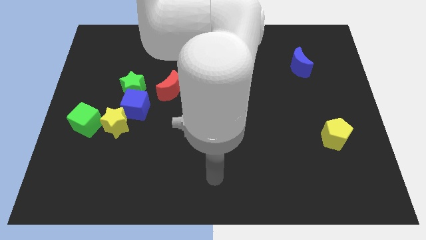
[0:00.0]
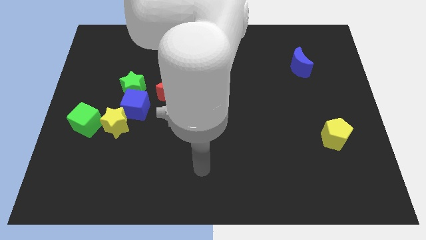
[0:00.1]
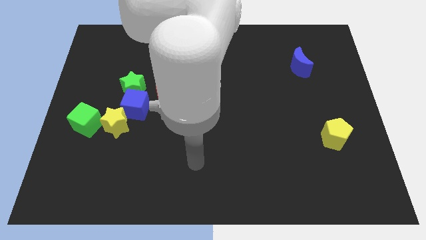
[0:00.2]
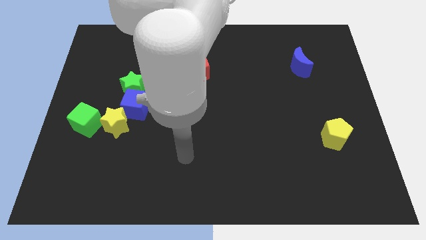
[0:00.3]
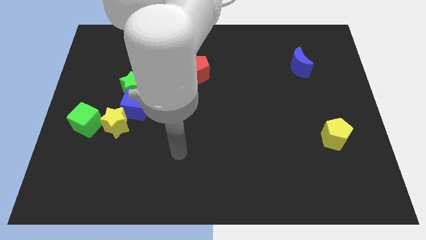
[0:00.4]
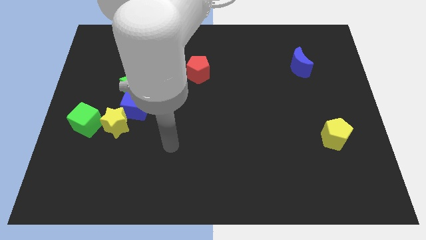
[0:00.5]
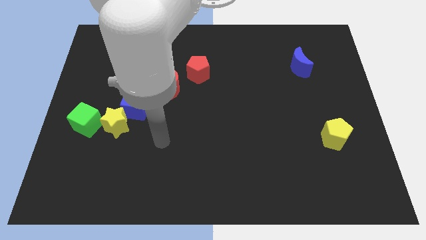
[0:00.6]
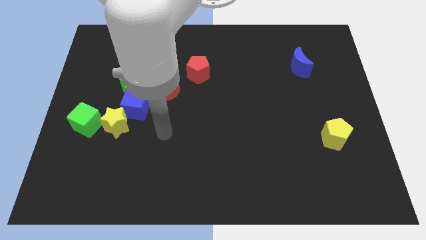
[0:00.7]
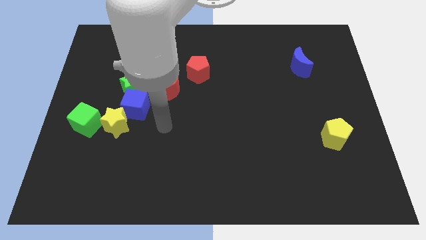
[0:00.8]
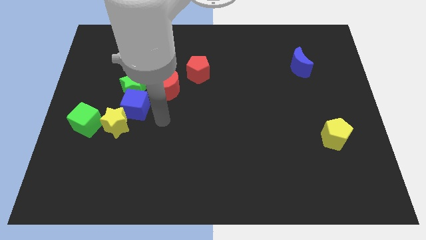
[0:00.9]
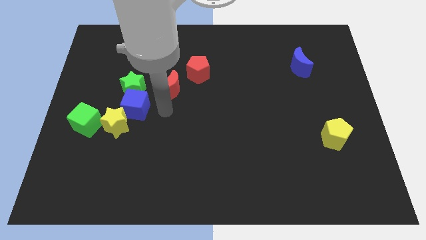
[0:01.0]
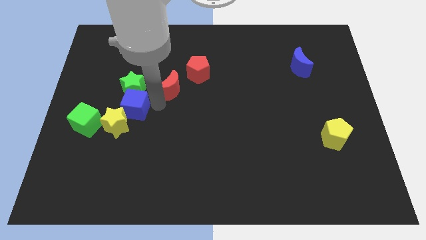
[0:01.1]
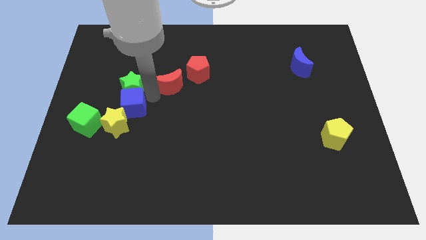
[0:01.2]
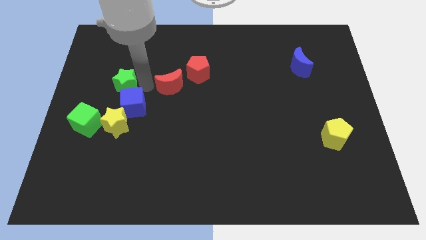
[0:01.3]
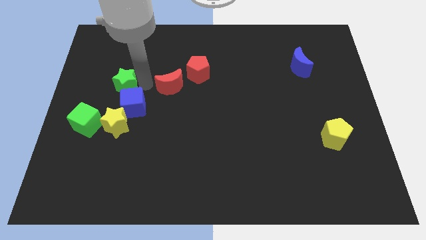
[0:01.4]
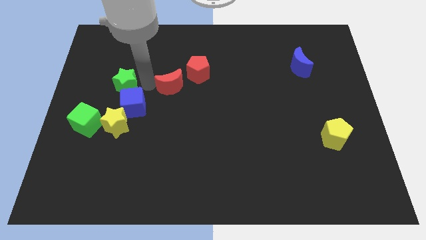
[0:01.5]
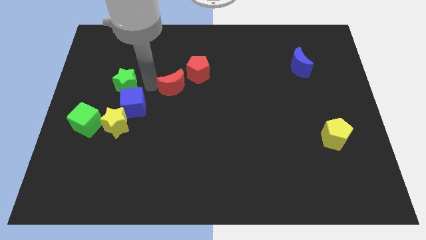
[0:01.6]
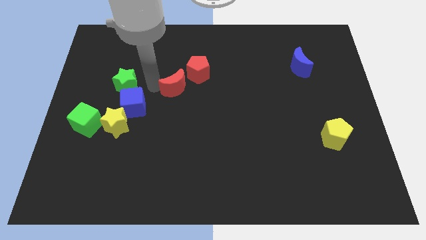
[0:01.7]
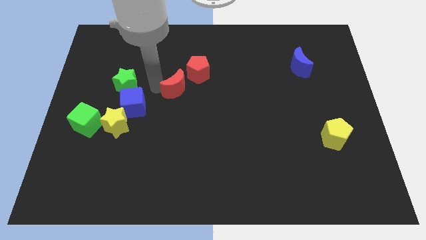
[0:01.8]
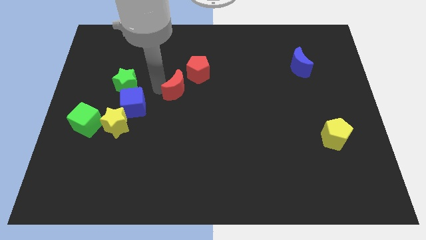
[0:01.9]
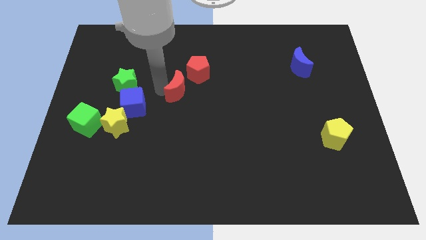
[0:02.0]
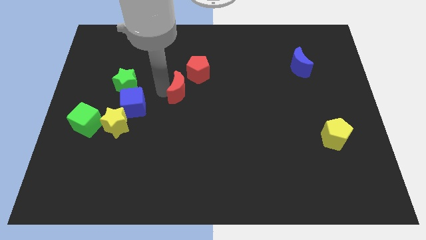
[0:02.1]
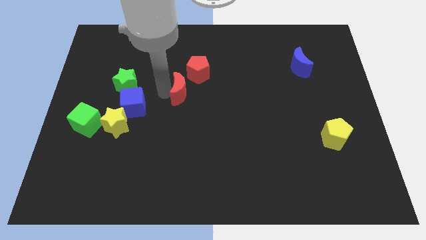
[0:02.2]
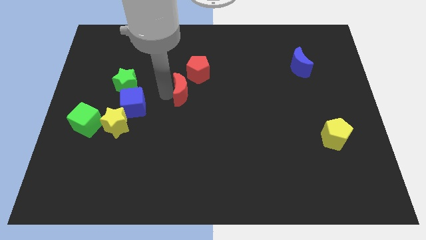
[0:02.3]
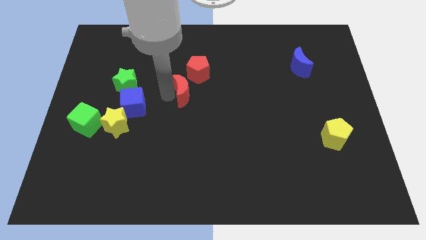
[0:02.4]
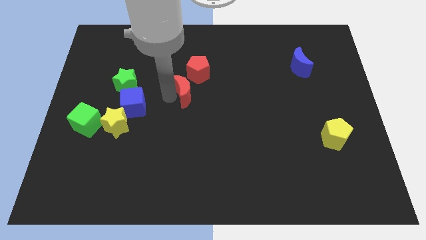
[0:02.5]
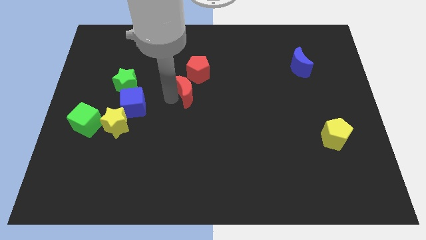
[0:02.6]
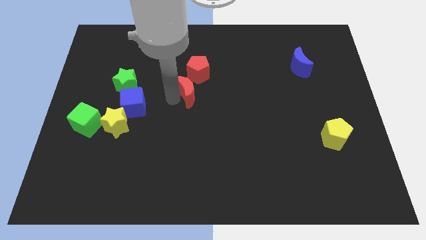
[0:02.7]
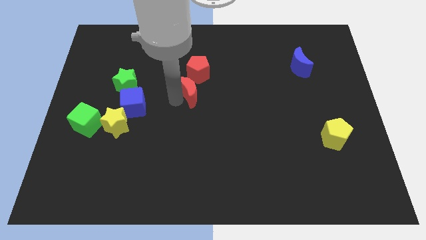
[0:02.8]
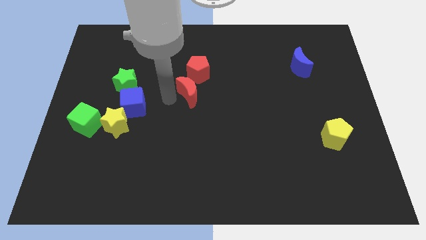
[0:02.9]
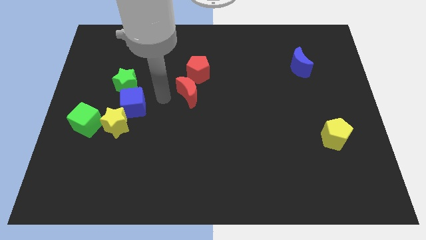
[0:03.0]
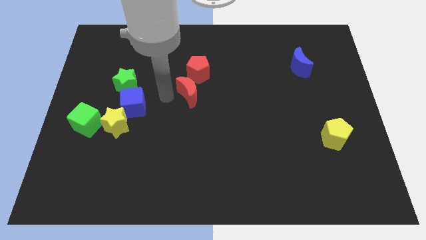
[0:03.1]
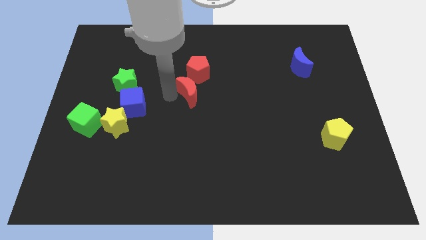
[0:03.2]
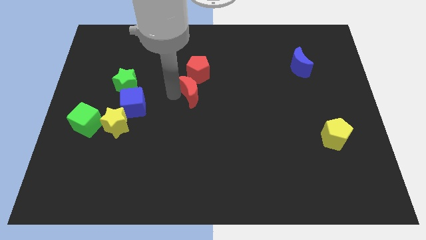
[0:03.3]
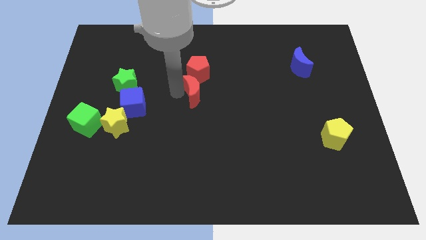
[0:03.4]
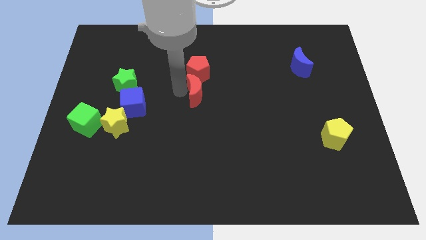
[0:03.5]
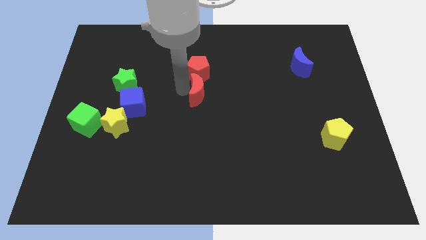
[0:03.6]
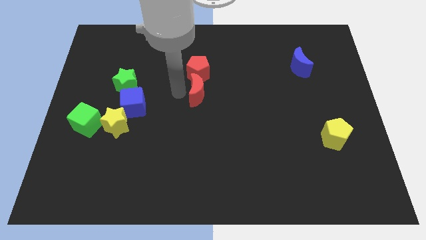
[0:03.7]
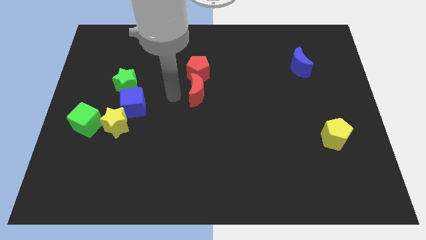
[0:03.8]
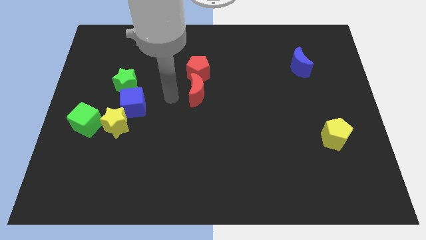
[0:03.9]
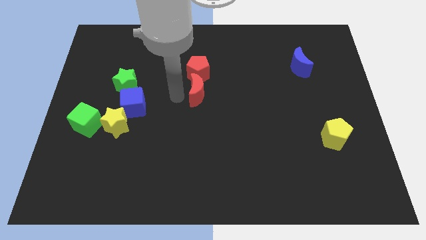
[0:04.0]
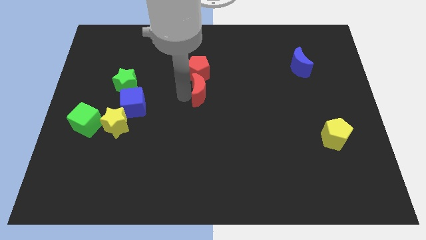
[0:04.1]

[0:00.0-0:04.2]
slightly push the red moon right

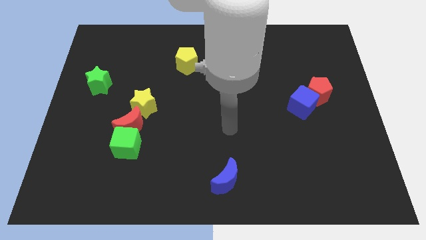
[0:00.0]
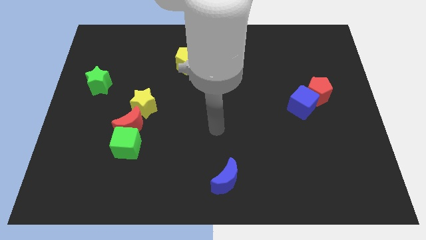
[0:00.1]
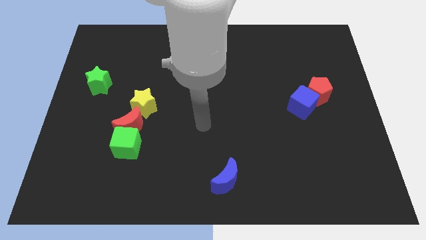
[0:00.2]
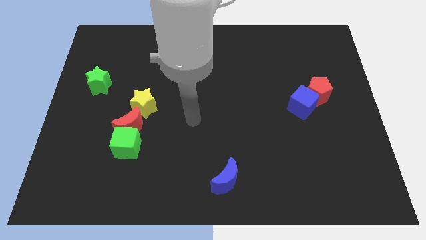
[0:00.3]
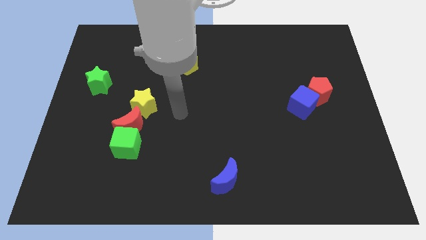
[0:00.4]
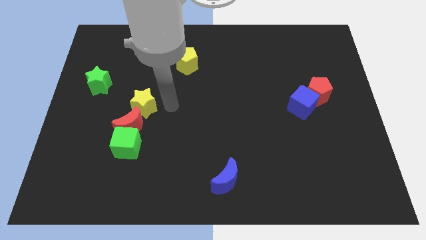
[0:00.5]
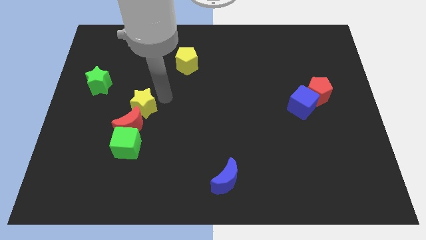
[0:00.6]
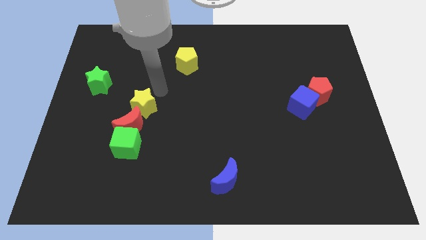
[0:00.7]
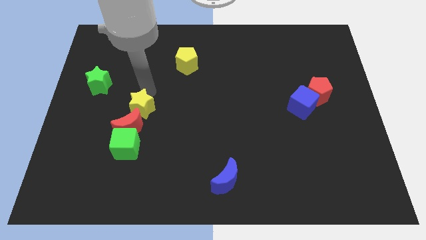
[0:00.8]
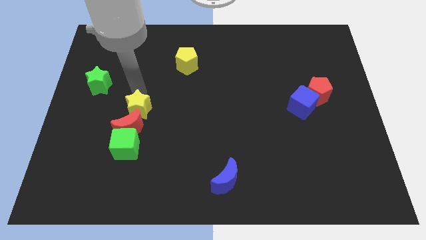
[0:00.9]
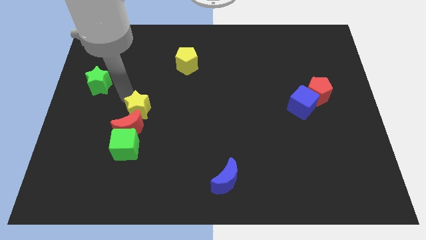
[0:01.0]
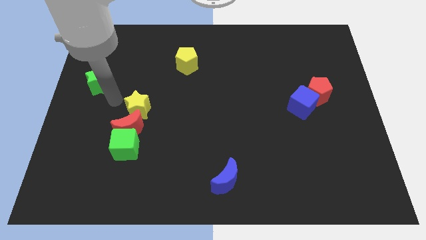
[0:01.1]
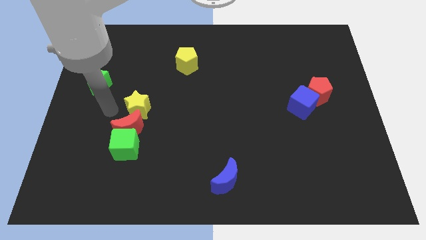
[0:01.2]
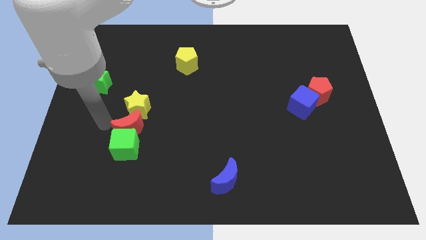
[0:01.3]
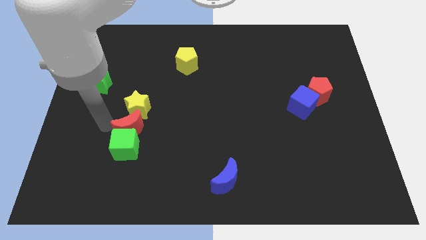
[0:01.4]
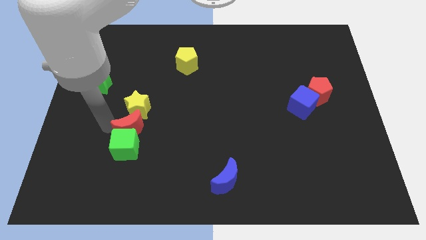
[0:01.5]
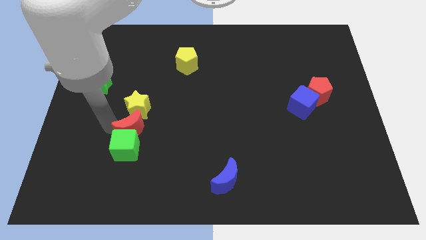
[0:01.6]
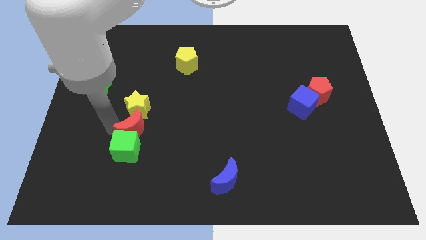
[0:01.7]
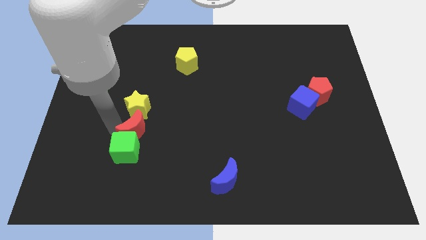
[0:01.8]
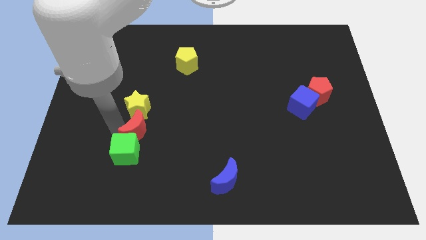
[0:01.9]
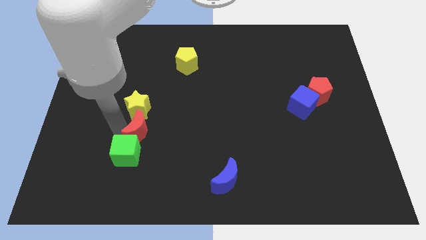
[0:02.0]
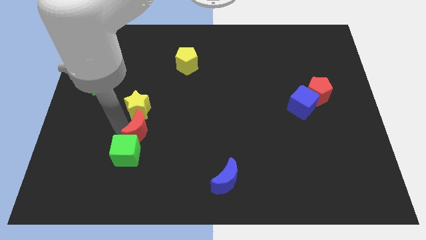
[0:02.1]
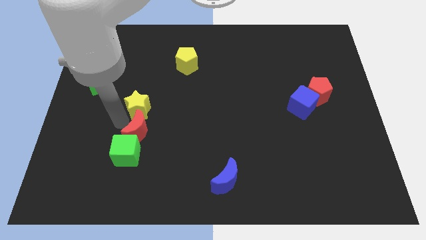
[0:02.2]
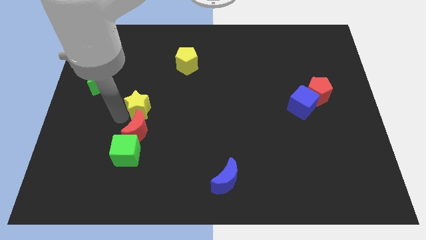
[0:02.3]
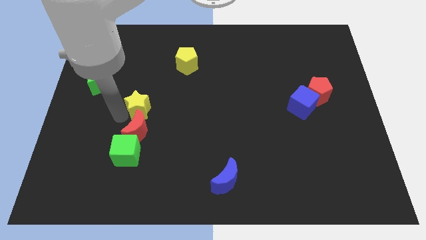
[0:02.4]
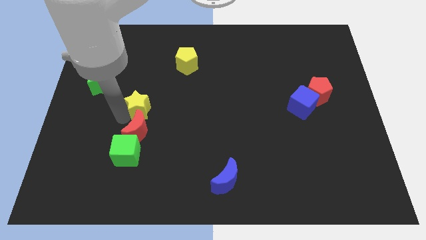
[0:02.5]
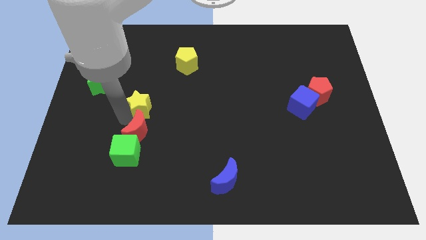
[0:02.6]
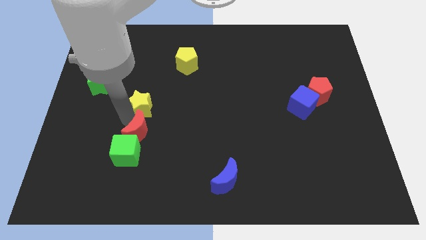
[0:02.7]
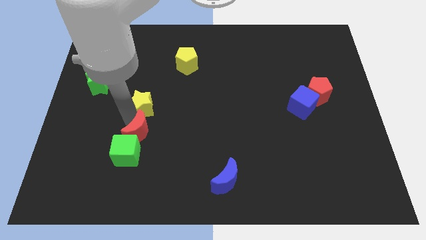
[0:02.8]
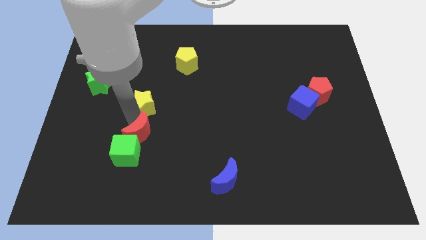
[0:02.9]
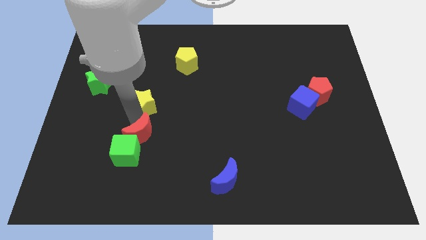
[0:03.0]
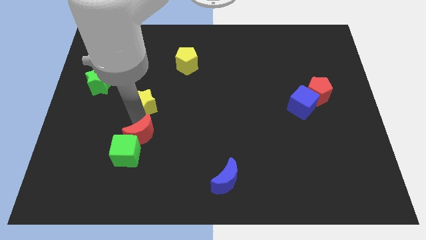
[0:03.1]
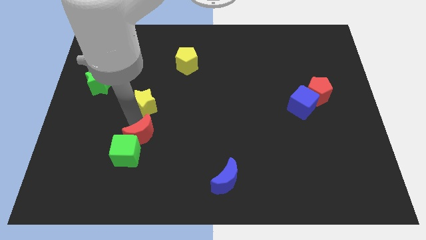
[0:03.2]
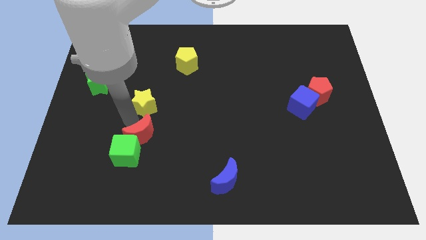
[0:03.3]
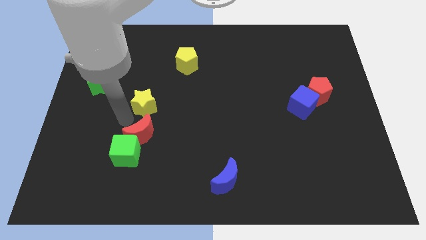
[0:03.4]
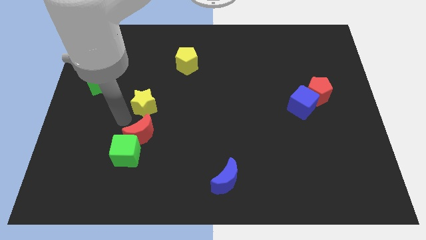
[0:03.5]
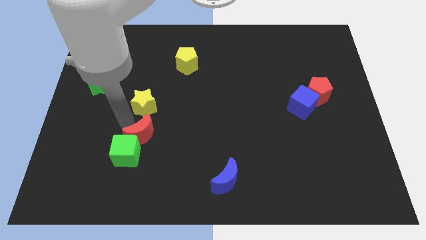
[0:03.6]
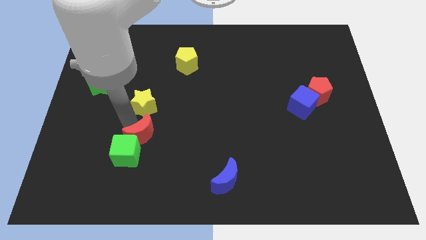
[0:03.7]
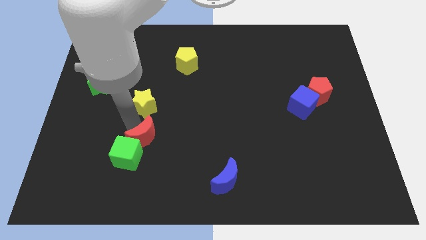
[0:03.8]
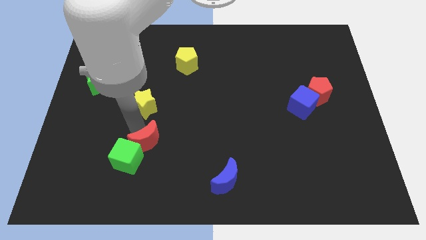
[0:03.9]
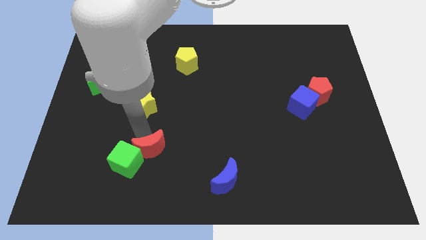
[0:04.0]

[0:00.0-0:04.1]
slightly slide the red moon downwards and then to the right
